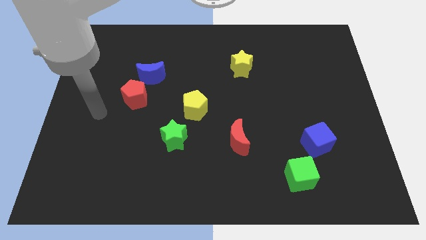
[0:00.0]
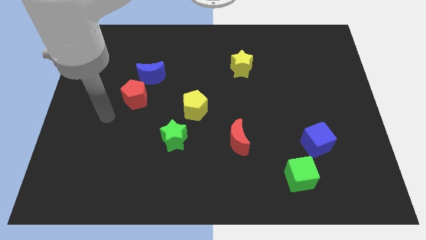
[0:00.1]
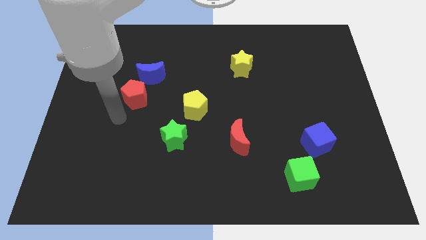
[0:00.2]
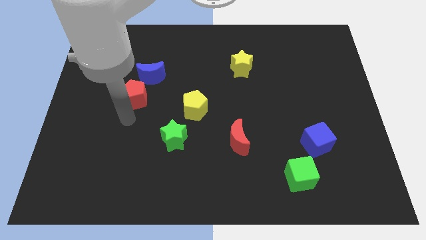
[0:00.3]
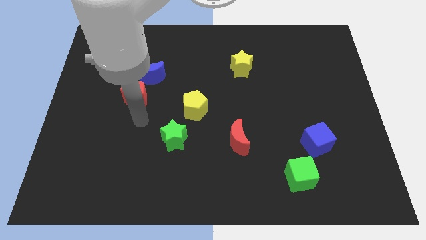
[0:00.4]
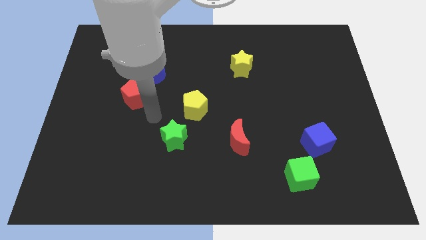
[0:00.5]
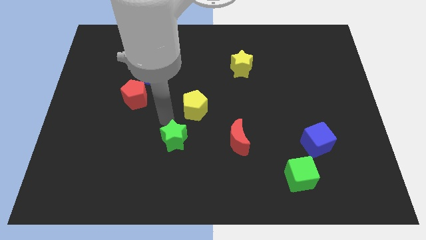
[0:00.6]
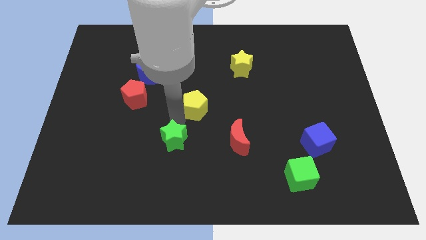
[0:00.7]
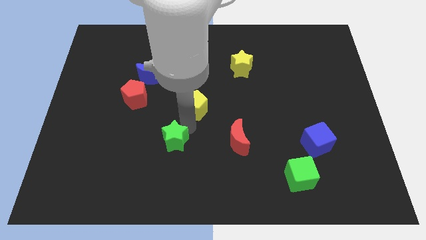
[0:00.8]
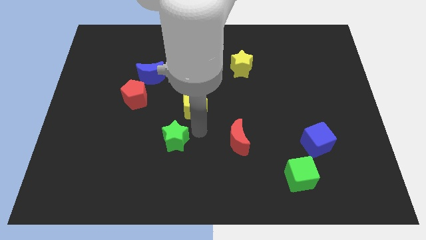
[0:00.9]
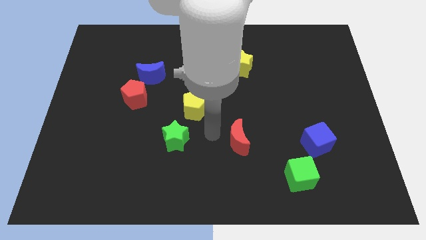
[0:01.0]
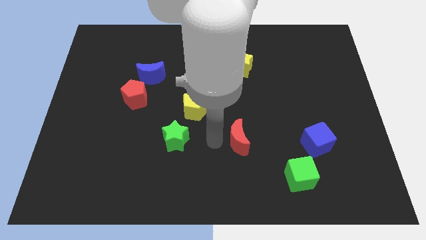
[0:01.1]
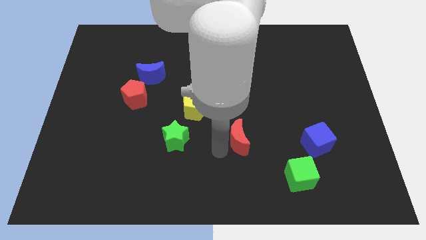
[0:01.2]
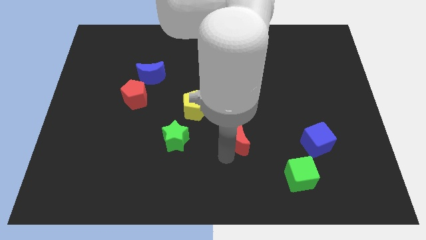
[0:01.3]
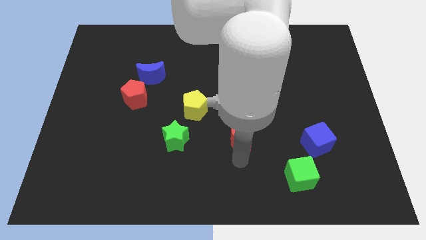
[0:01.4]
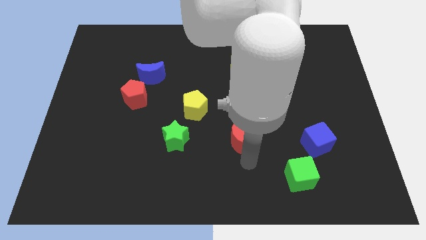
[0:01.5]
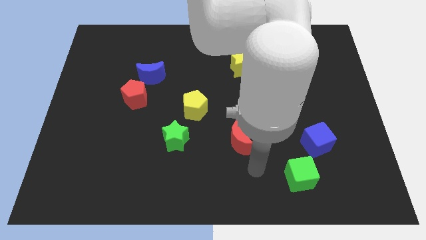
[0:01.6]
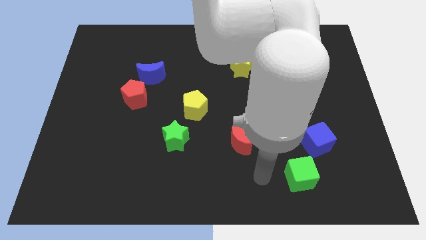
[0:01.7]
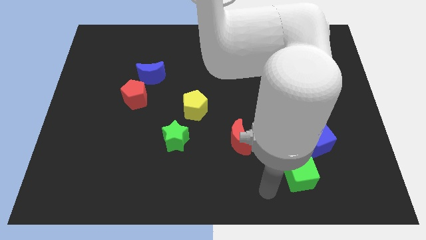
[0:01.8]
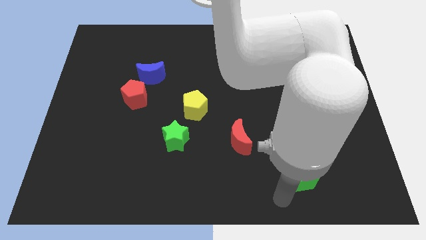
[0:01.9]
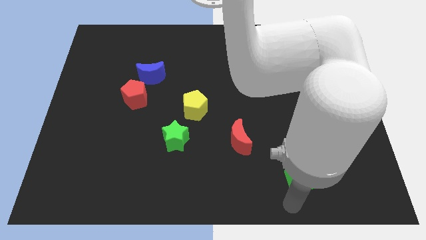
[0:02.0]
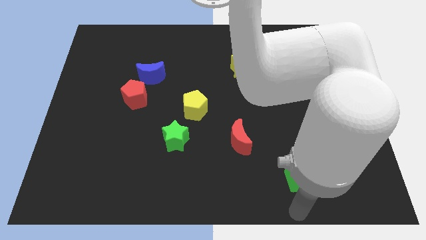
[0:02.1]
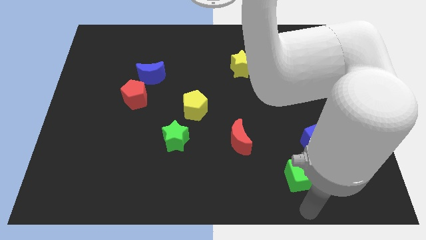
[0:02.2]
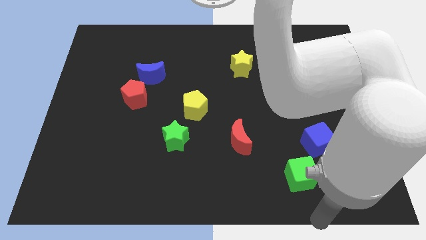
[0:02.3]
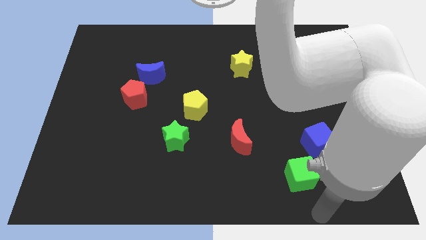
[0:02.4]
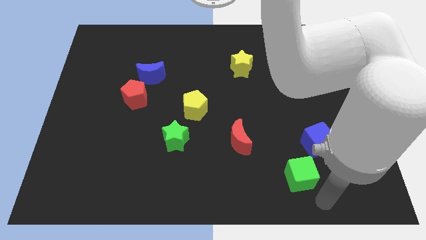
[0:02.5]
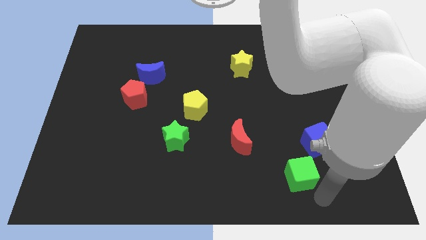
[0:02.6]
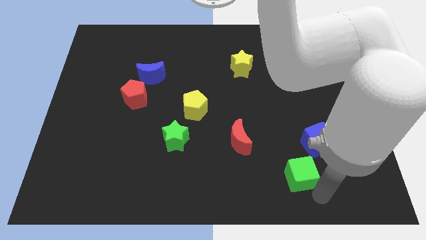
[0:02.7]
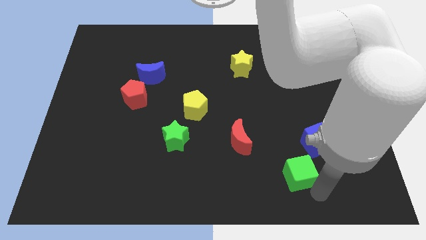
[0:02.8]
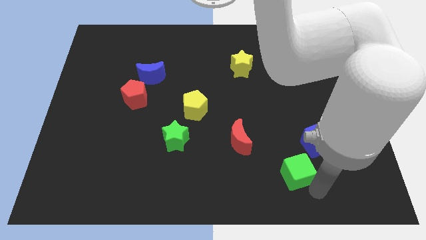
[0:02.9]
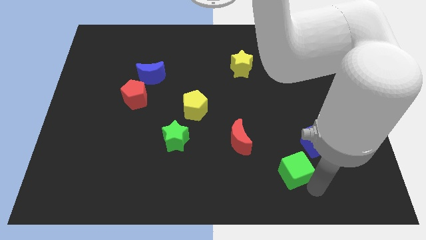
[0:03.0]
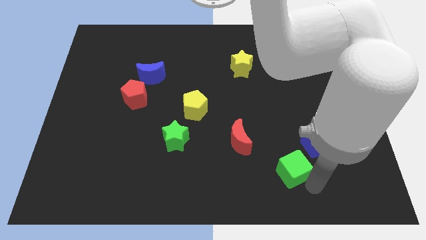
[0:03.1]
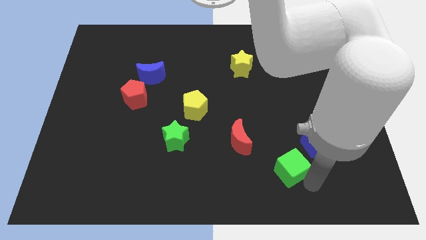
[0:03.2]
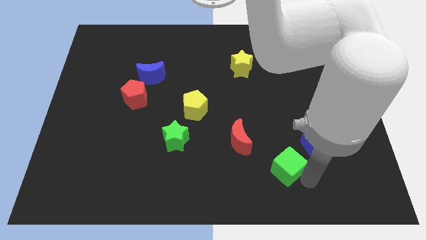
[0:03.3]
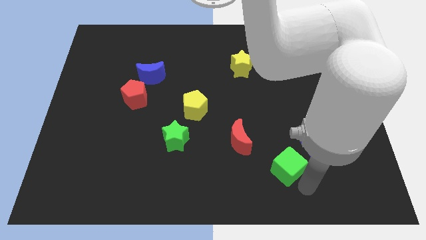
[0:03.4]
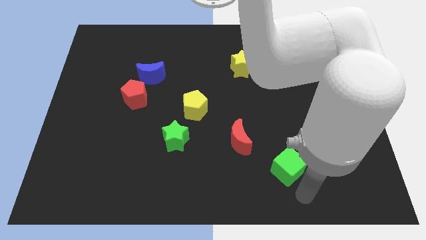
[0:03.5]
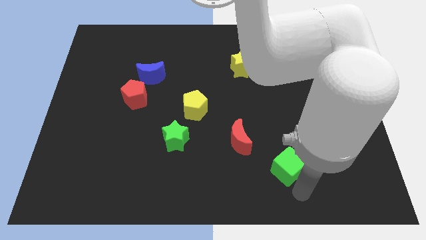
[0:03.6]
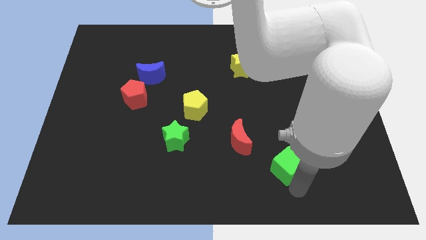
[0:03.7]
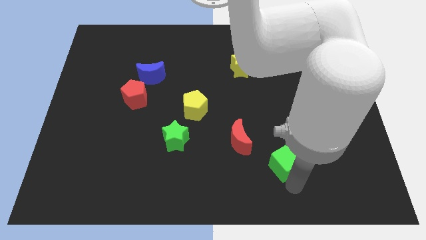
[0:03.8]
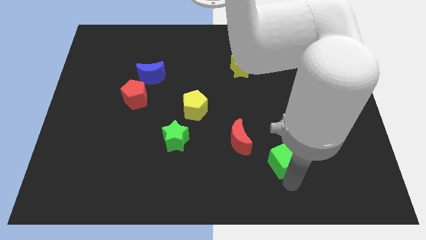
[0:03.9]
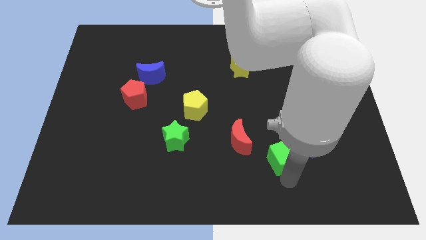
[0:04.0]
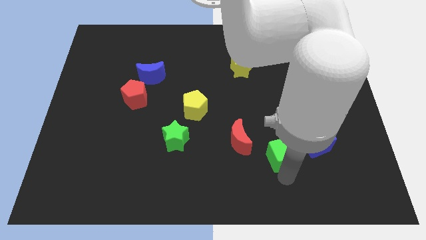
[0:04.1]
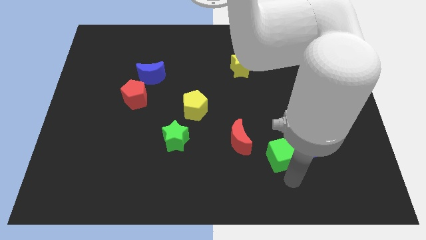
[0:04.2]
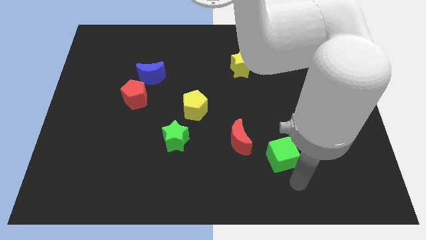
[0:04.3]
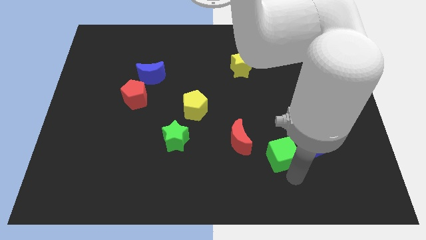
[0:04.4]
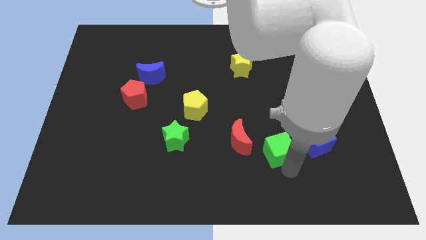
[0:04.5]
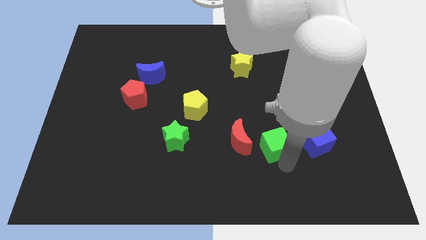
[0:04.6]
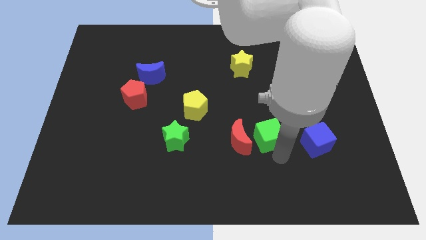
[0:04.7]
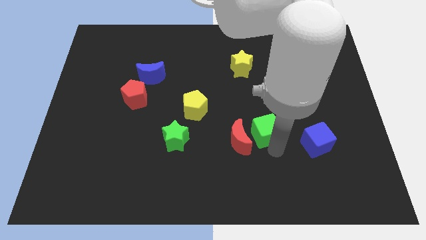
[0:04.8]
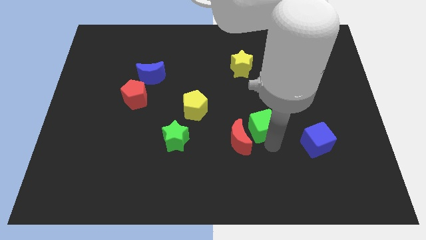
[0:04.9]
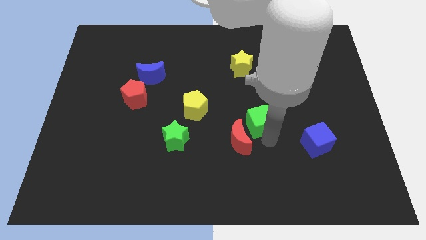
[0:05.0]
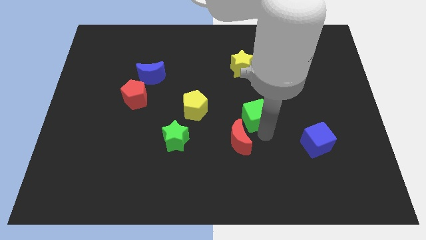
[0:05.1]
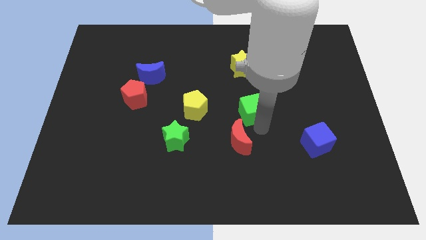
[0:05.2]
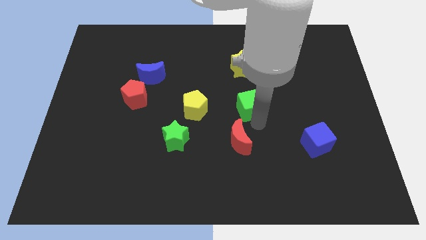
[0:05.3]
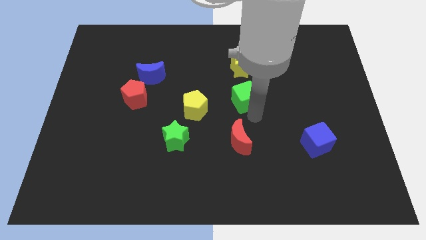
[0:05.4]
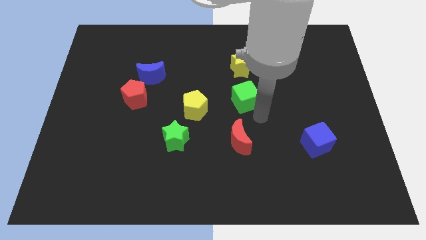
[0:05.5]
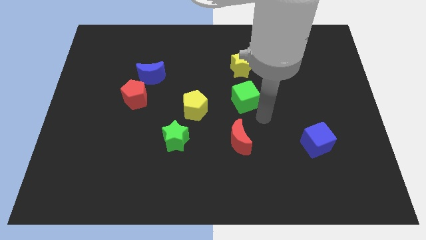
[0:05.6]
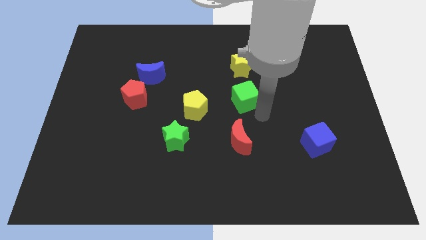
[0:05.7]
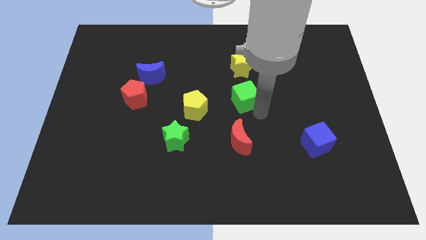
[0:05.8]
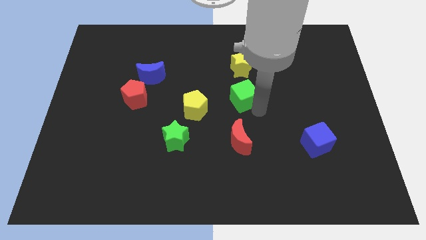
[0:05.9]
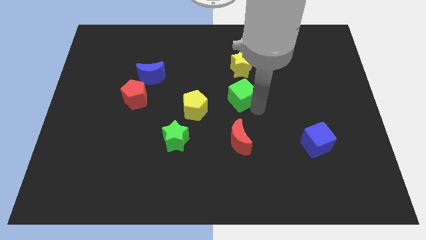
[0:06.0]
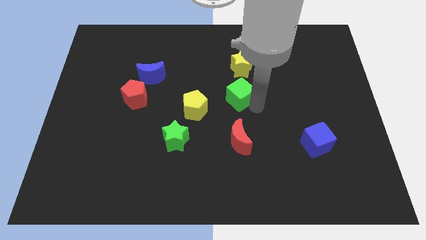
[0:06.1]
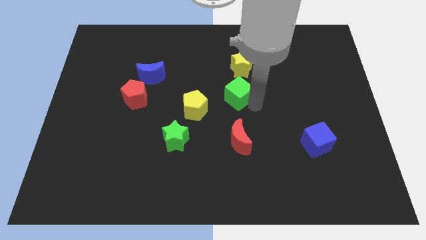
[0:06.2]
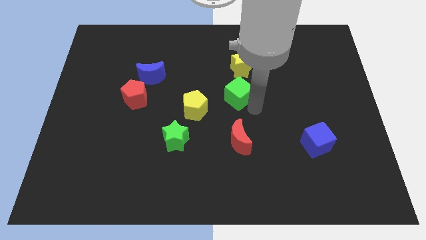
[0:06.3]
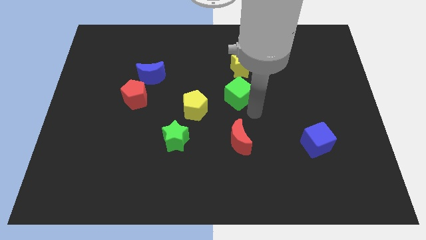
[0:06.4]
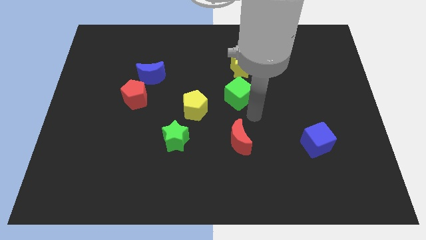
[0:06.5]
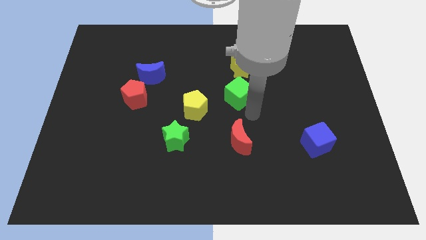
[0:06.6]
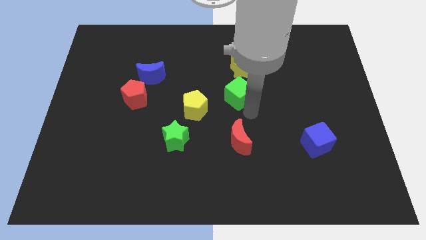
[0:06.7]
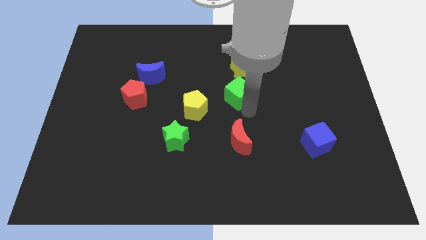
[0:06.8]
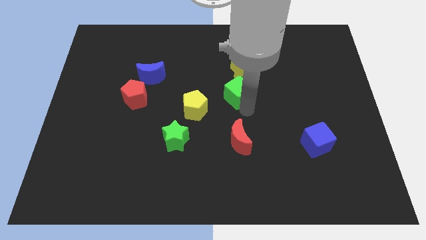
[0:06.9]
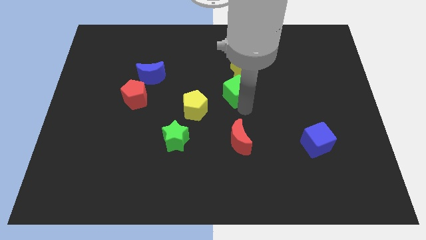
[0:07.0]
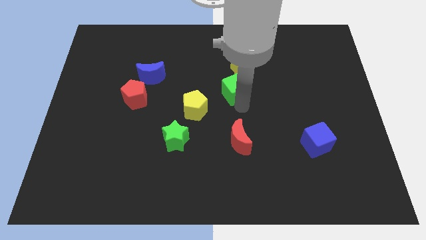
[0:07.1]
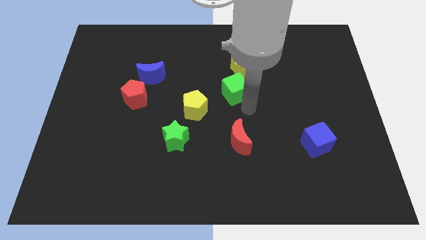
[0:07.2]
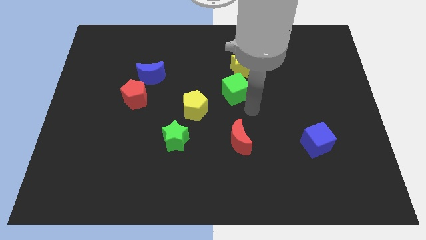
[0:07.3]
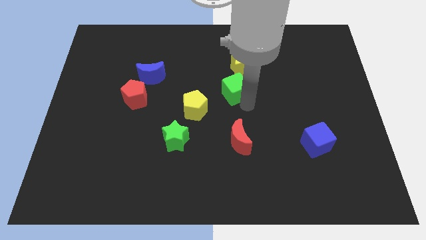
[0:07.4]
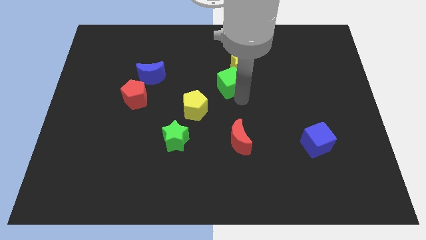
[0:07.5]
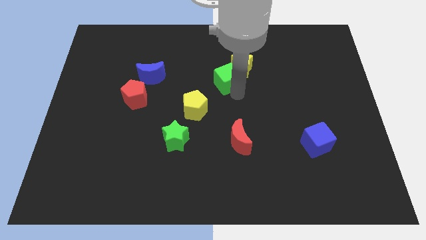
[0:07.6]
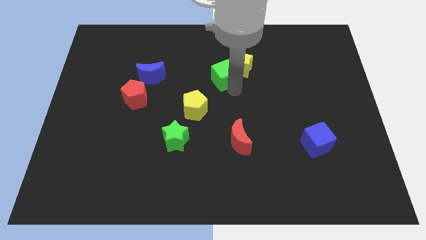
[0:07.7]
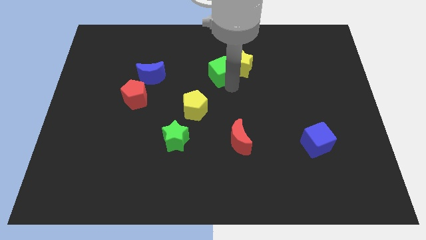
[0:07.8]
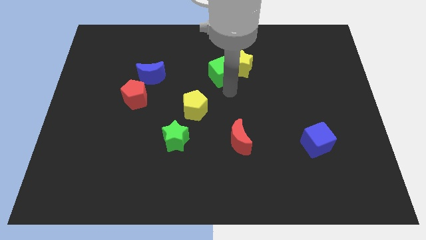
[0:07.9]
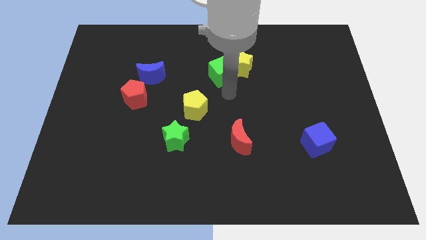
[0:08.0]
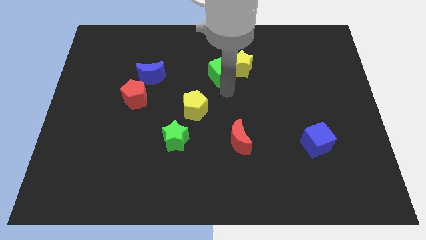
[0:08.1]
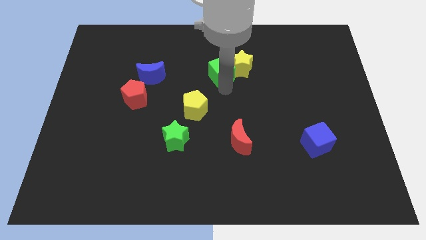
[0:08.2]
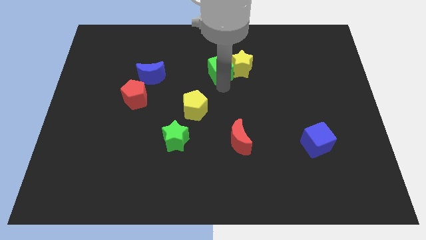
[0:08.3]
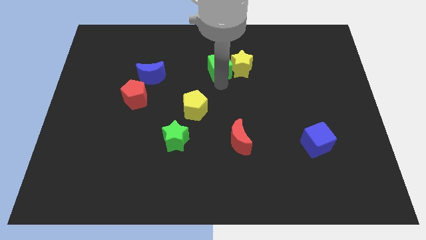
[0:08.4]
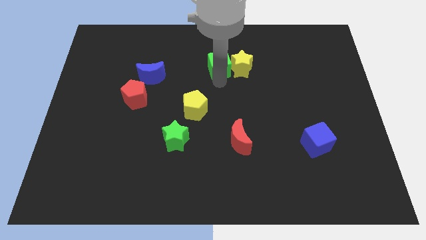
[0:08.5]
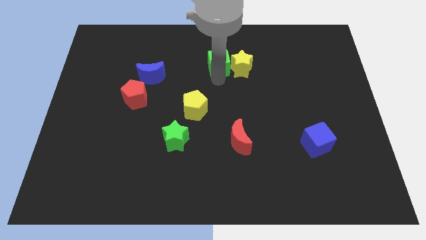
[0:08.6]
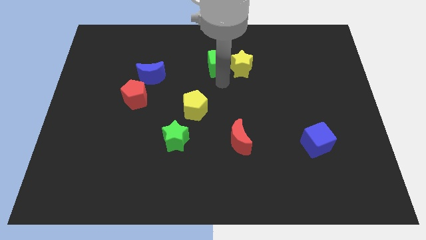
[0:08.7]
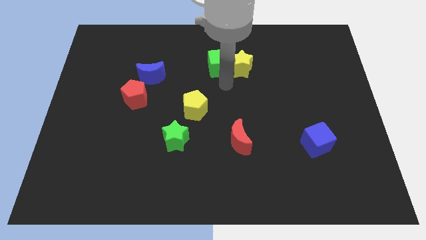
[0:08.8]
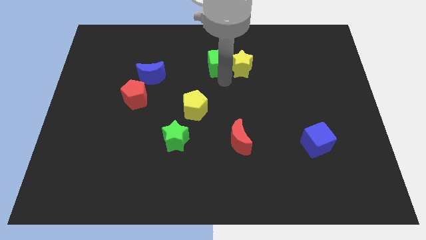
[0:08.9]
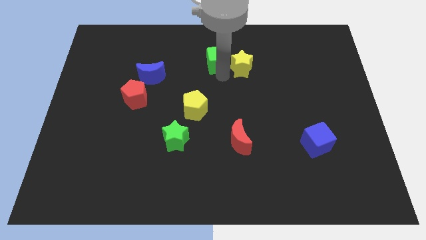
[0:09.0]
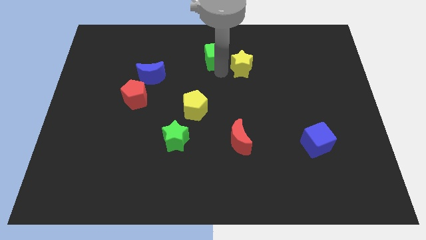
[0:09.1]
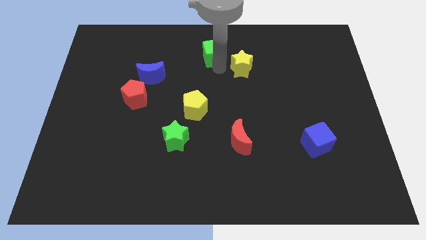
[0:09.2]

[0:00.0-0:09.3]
push the green cube to the towards your base
